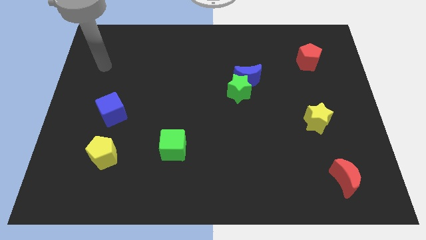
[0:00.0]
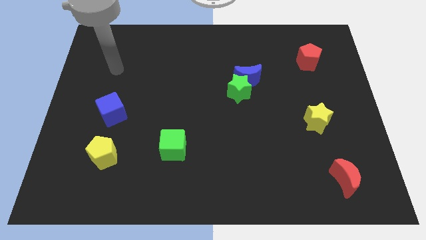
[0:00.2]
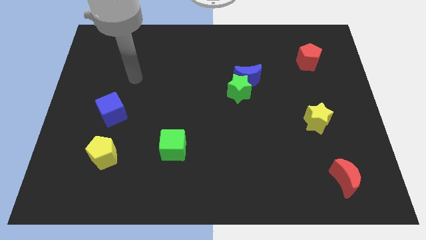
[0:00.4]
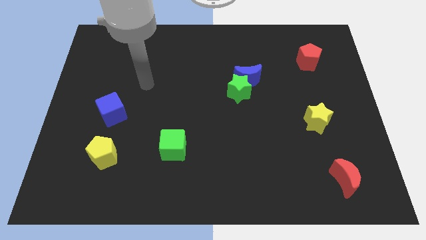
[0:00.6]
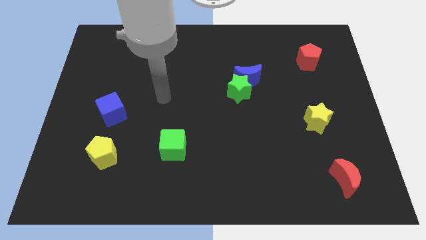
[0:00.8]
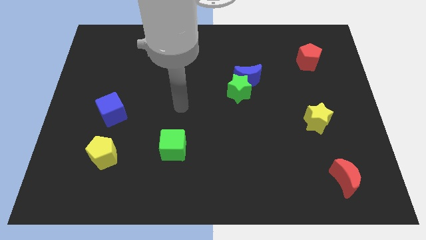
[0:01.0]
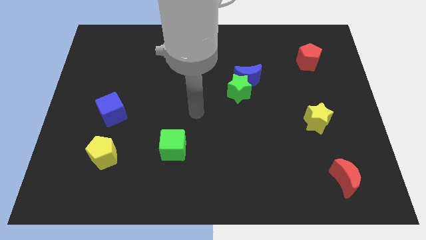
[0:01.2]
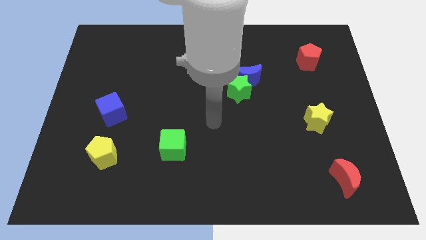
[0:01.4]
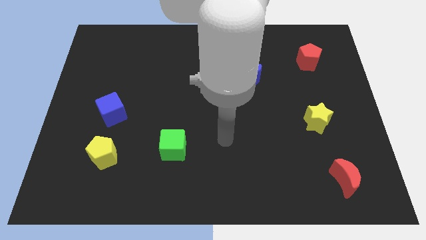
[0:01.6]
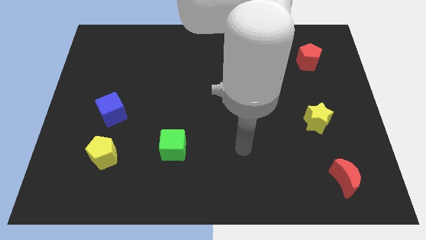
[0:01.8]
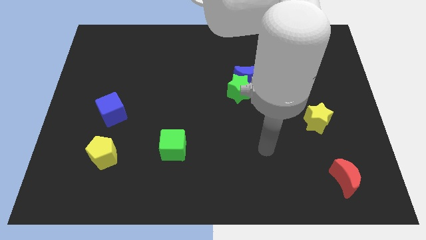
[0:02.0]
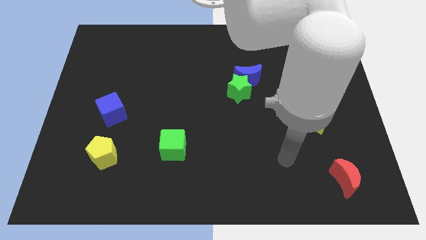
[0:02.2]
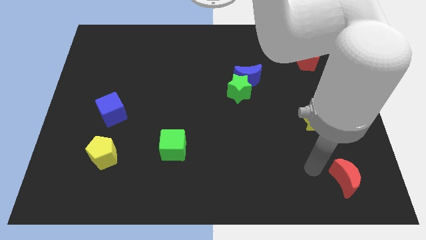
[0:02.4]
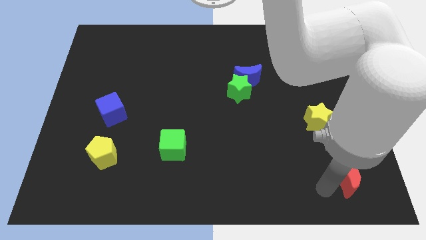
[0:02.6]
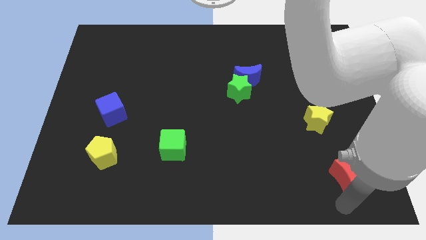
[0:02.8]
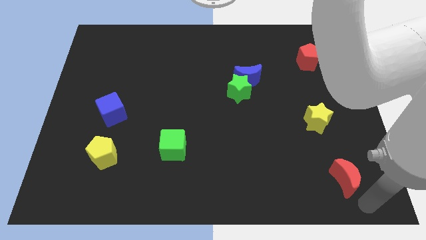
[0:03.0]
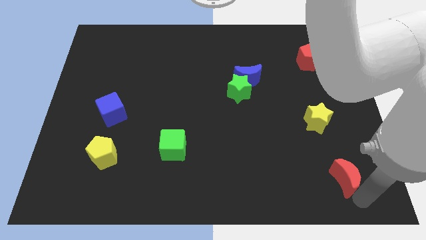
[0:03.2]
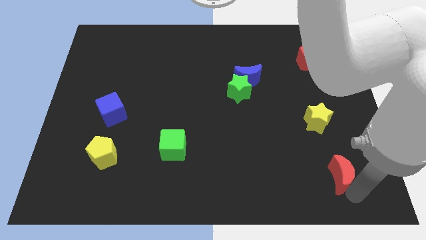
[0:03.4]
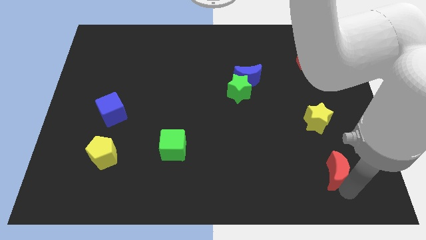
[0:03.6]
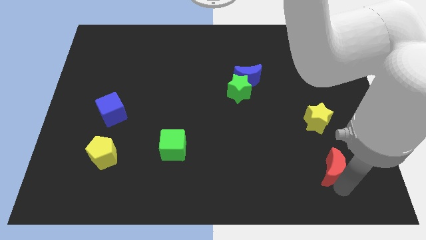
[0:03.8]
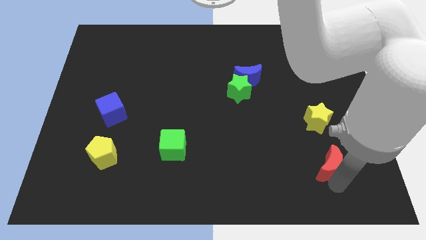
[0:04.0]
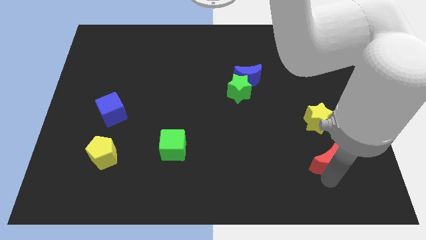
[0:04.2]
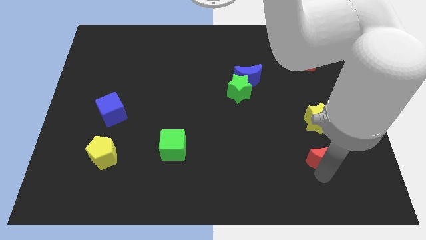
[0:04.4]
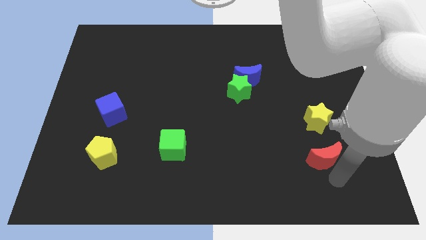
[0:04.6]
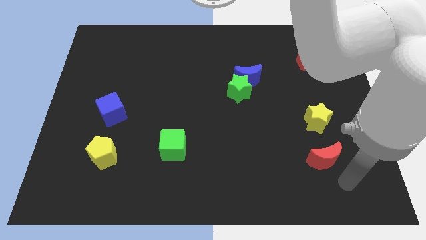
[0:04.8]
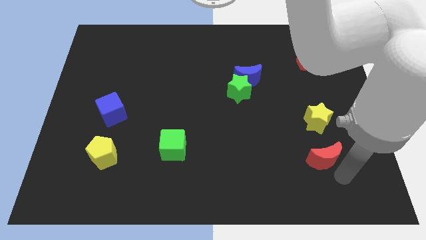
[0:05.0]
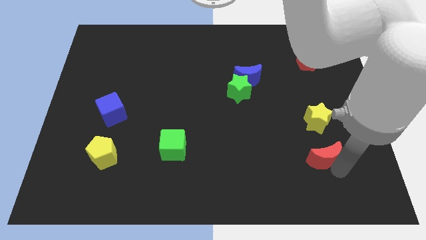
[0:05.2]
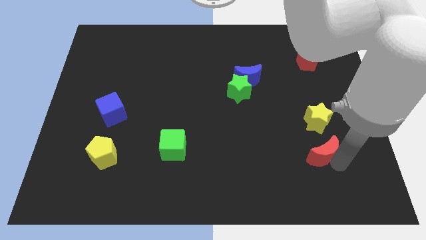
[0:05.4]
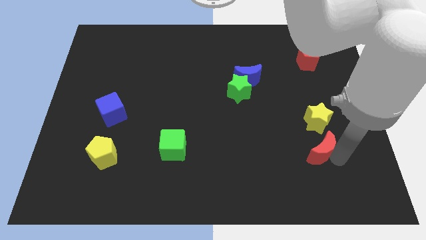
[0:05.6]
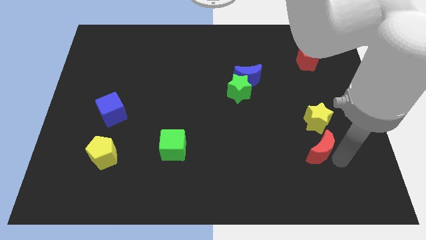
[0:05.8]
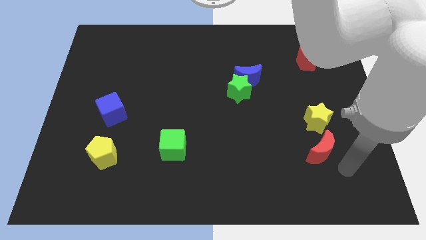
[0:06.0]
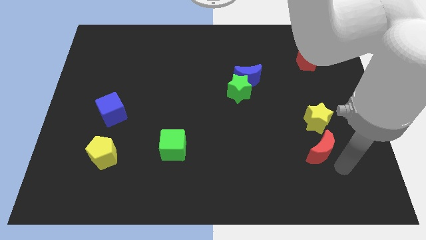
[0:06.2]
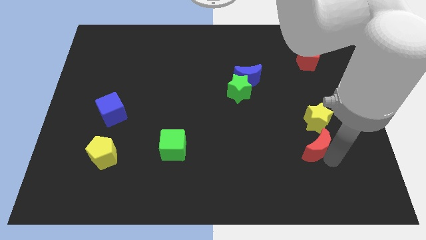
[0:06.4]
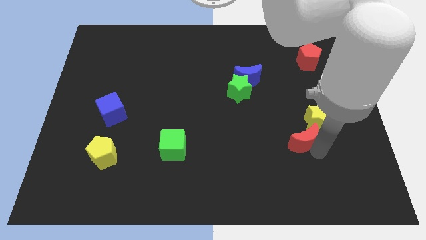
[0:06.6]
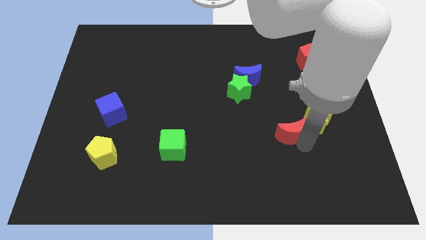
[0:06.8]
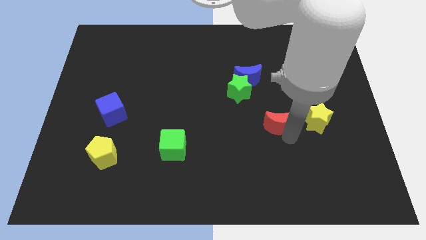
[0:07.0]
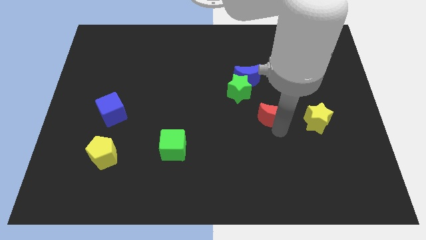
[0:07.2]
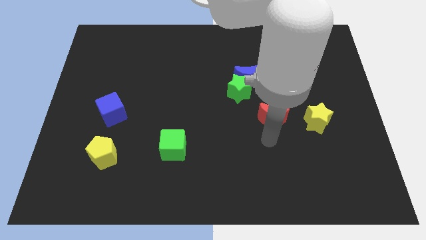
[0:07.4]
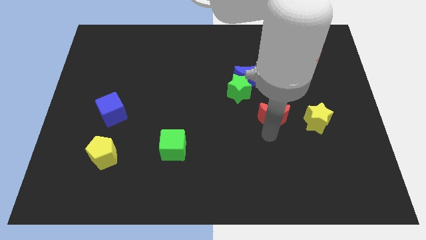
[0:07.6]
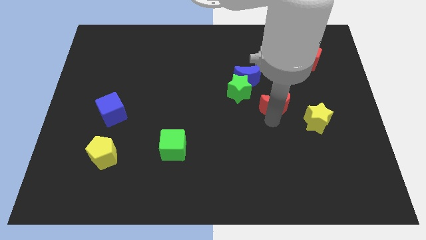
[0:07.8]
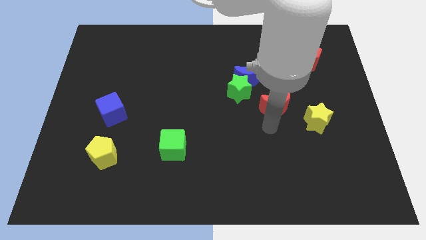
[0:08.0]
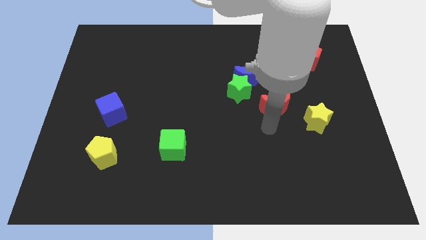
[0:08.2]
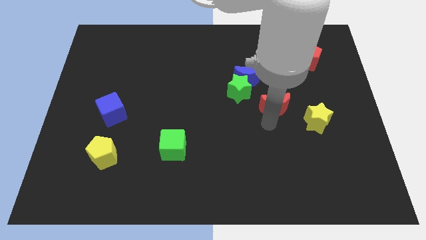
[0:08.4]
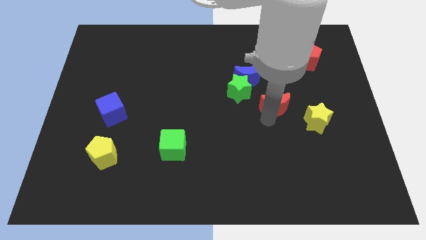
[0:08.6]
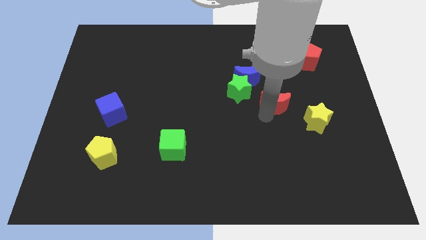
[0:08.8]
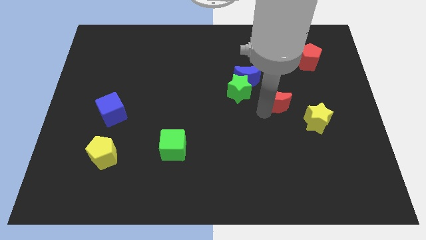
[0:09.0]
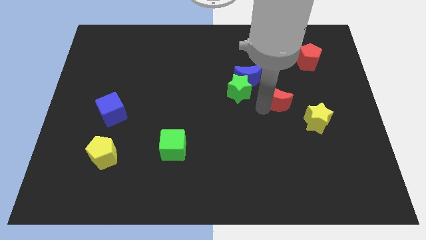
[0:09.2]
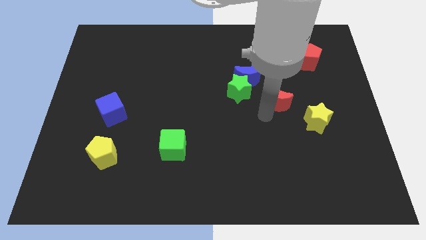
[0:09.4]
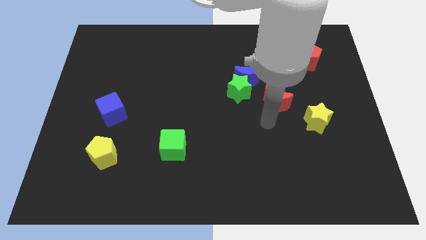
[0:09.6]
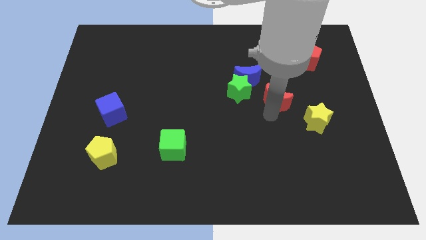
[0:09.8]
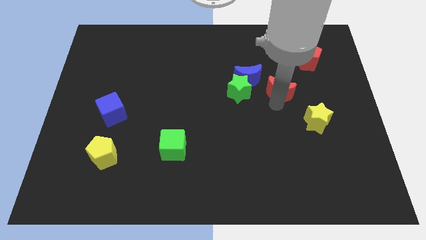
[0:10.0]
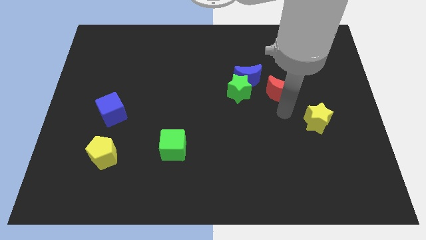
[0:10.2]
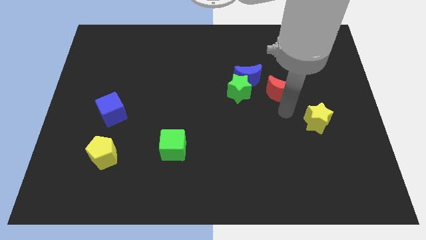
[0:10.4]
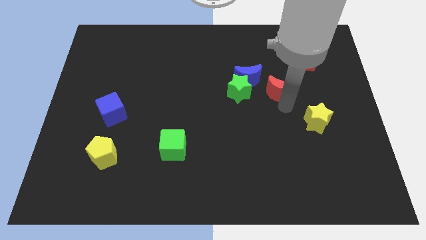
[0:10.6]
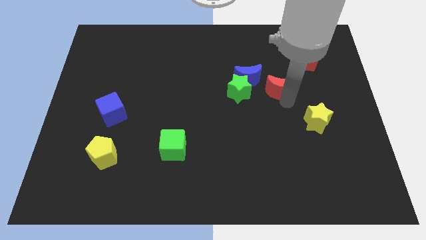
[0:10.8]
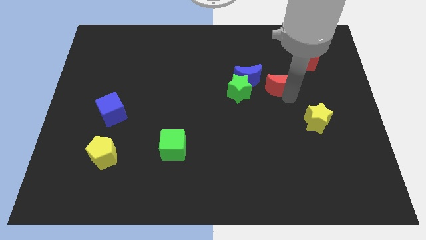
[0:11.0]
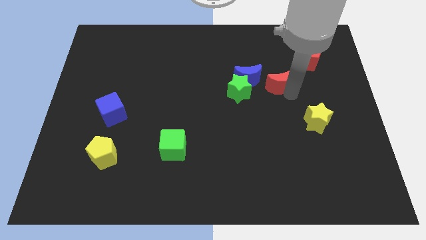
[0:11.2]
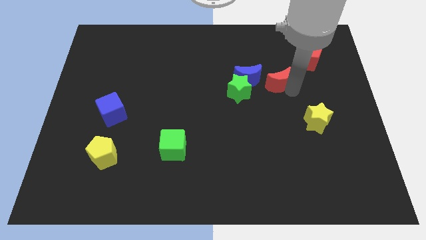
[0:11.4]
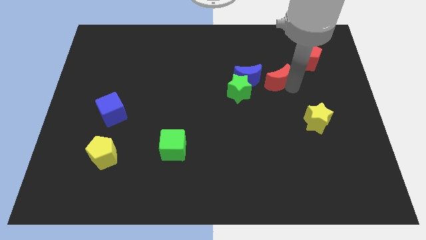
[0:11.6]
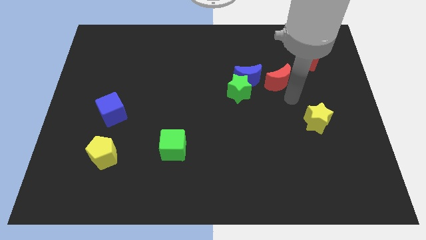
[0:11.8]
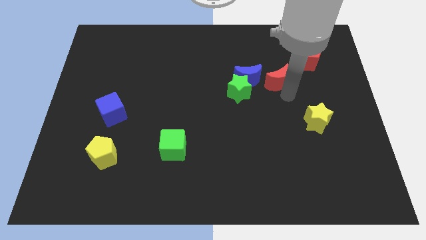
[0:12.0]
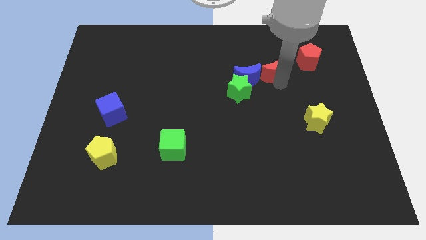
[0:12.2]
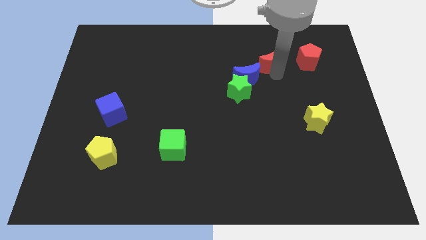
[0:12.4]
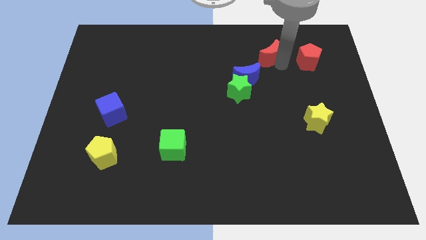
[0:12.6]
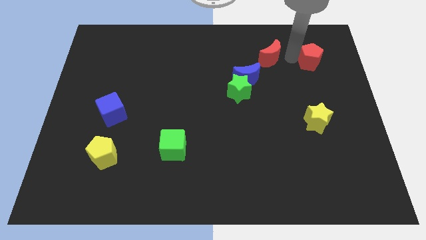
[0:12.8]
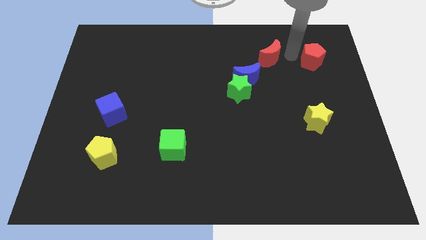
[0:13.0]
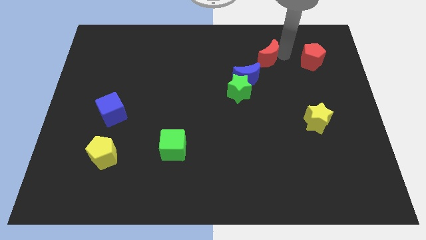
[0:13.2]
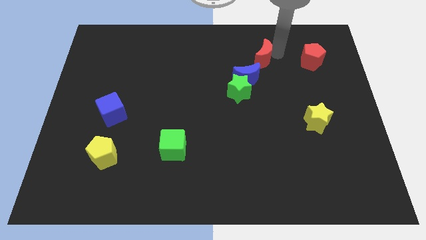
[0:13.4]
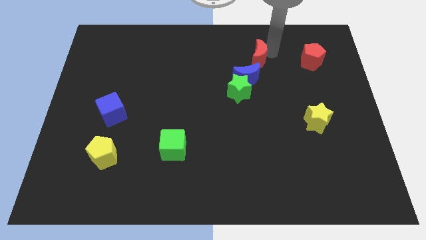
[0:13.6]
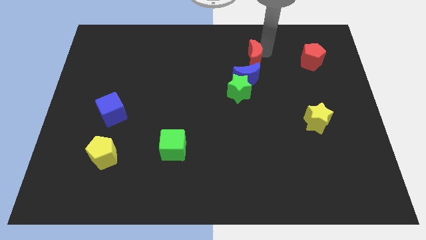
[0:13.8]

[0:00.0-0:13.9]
push the red moon above the green star

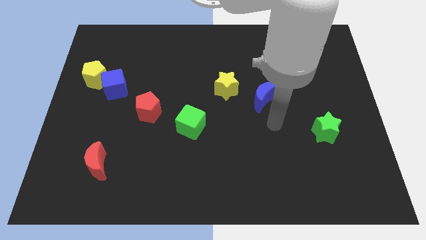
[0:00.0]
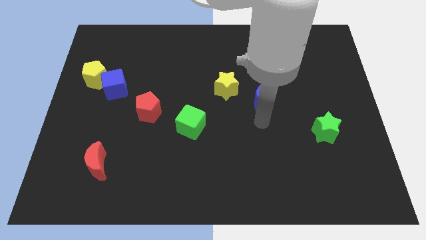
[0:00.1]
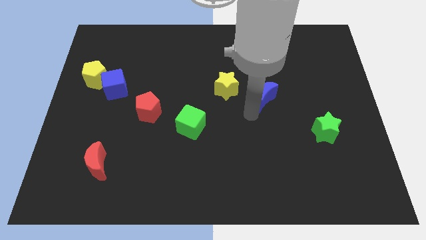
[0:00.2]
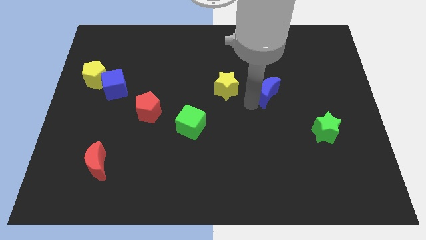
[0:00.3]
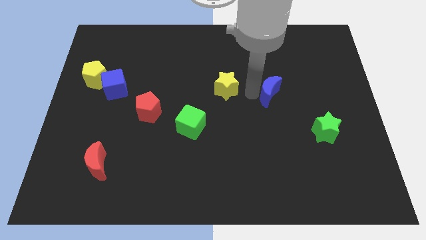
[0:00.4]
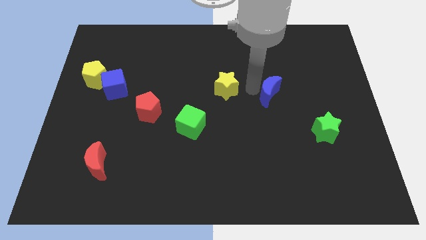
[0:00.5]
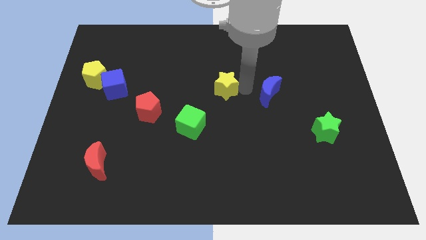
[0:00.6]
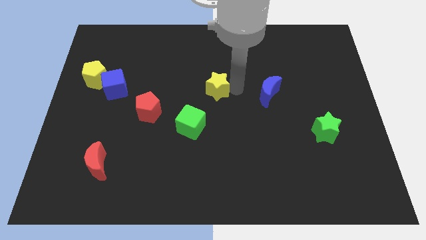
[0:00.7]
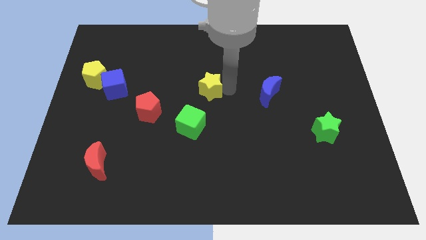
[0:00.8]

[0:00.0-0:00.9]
slide the yellow star to the top of the green cube
